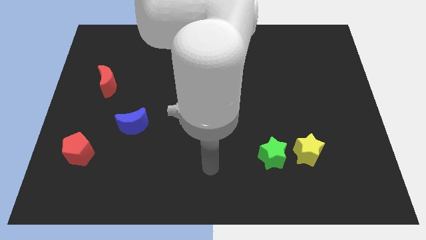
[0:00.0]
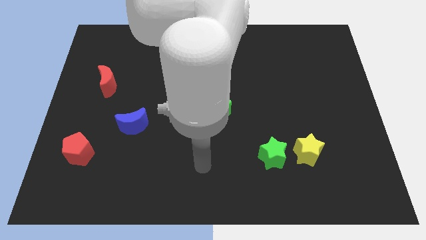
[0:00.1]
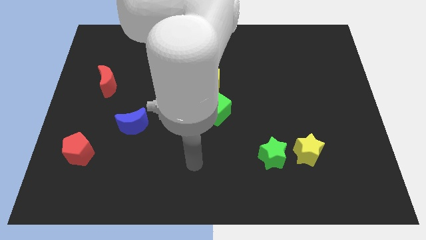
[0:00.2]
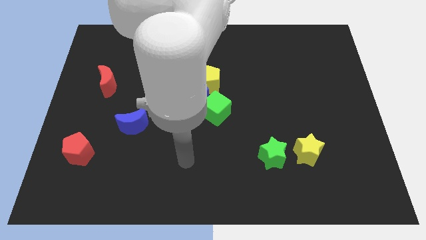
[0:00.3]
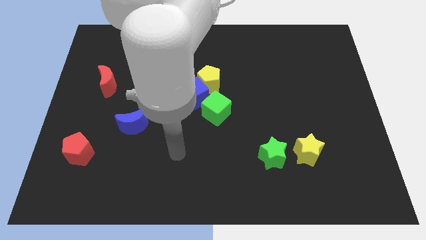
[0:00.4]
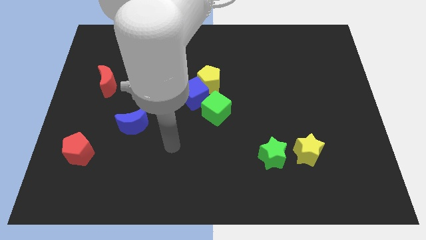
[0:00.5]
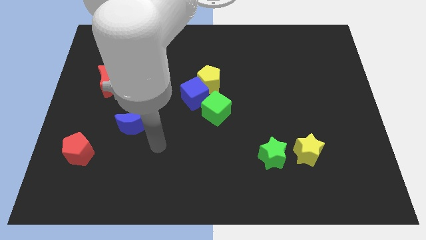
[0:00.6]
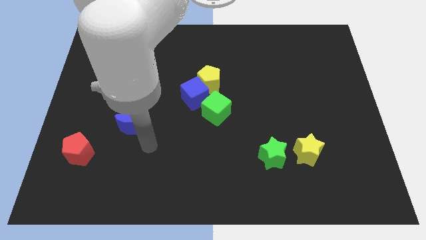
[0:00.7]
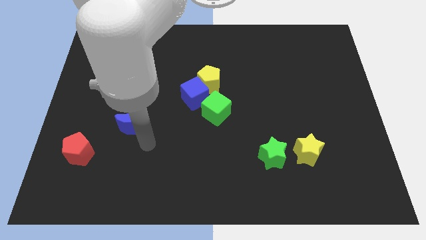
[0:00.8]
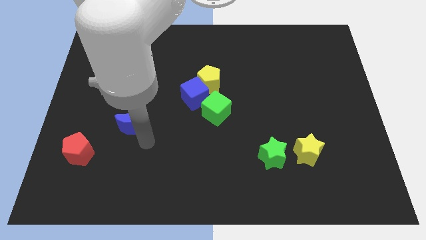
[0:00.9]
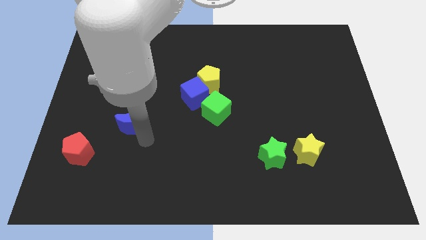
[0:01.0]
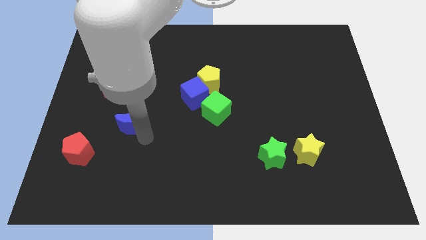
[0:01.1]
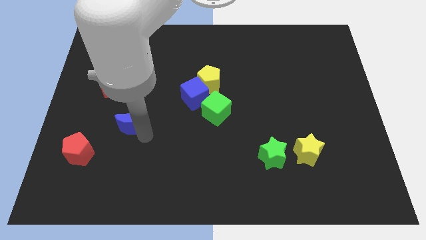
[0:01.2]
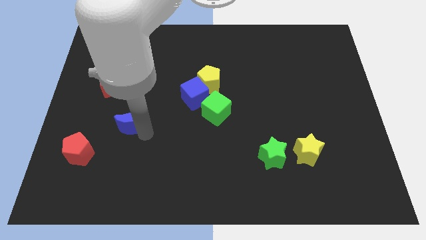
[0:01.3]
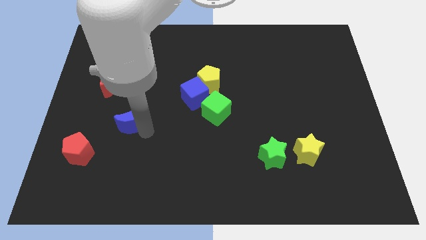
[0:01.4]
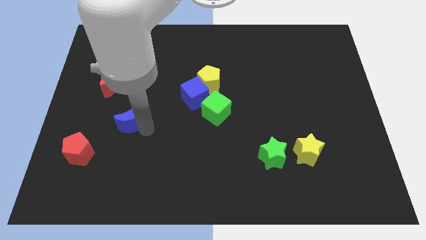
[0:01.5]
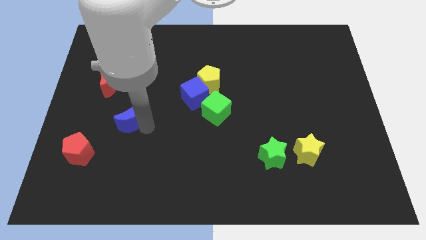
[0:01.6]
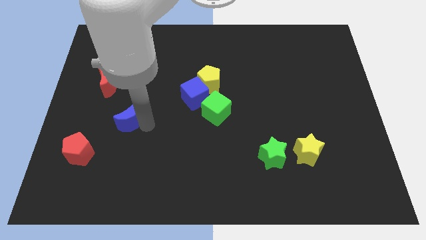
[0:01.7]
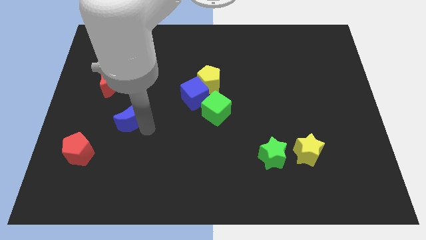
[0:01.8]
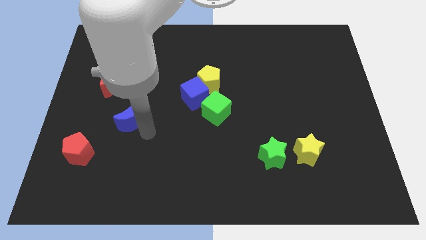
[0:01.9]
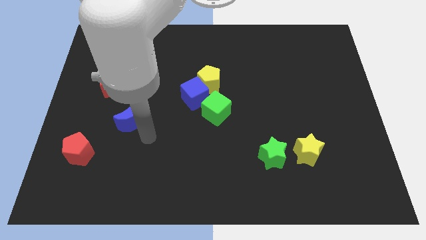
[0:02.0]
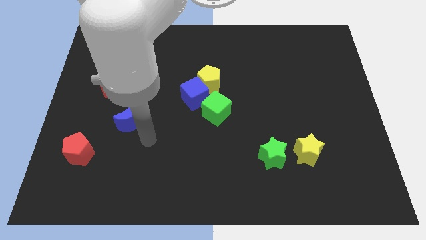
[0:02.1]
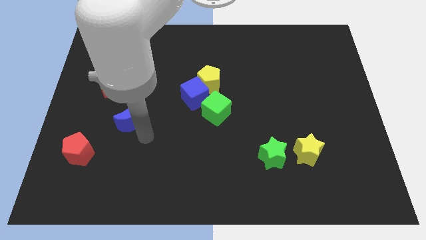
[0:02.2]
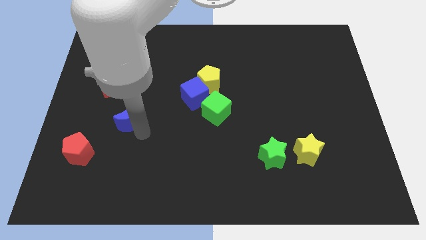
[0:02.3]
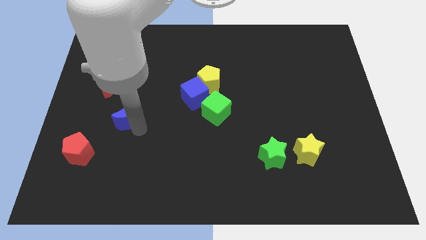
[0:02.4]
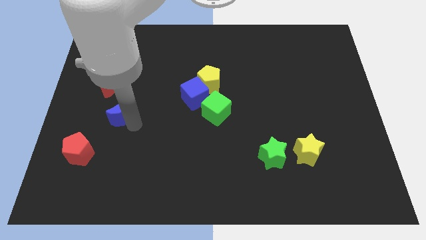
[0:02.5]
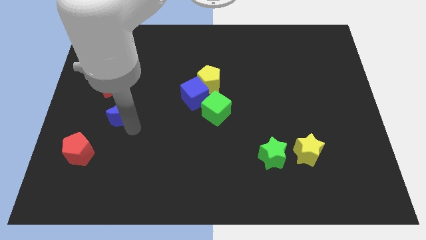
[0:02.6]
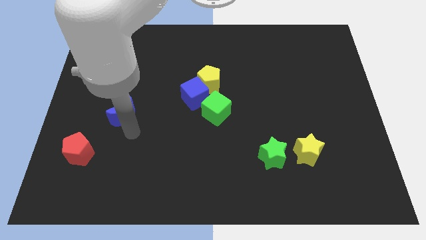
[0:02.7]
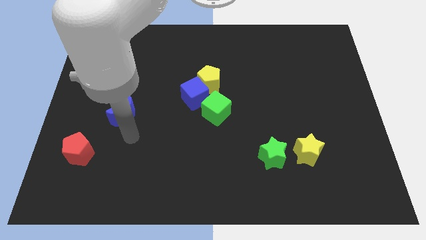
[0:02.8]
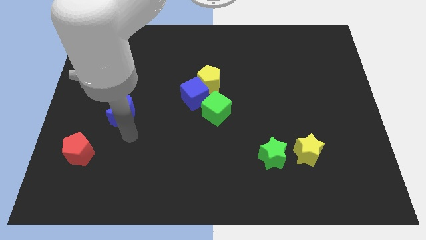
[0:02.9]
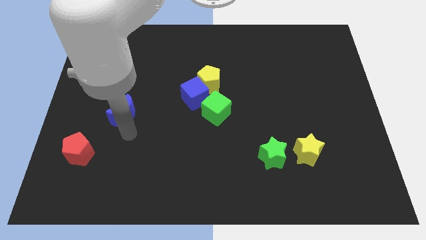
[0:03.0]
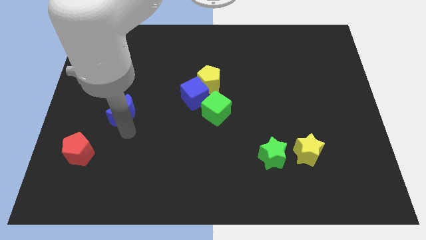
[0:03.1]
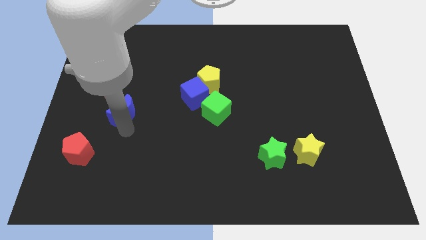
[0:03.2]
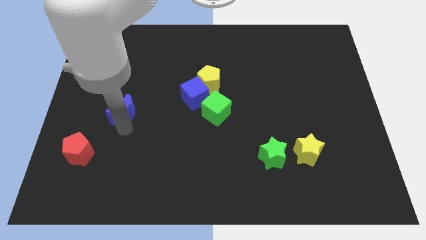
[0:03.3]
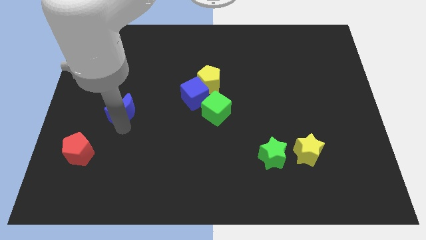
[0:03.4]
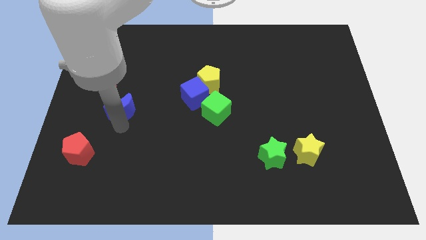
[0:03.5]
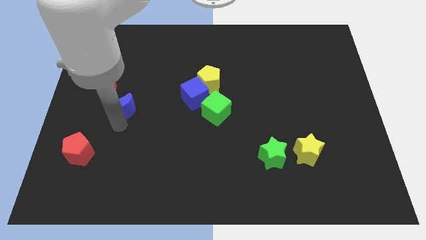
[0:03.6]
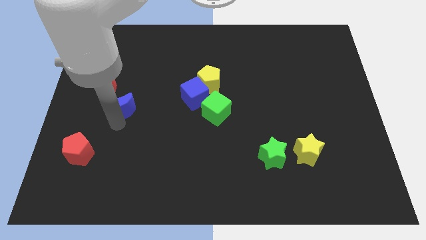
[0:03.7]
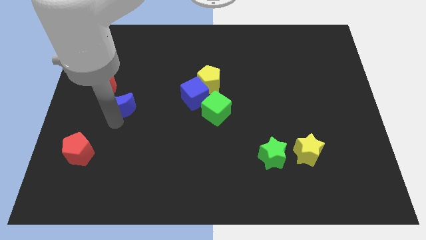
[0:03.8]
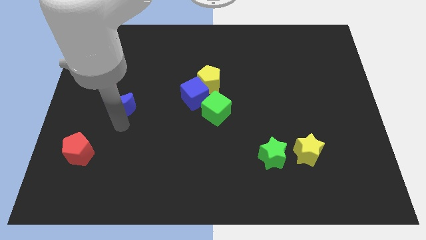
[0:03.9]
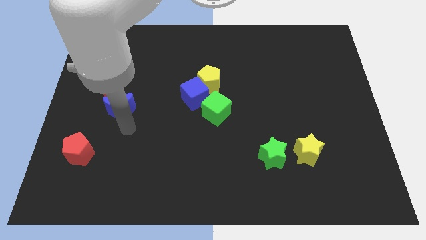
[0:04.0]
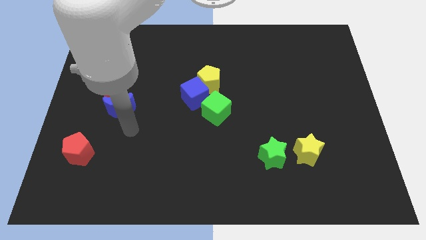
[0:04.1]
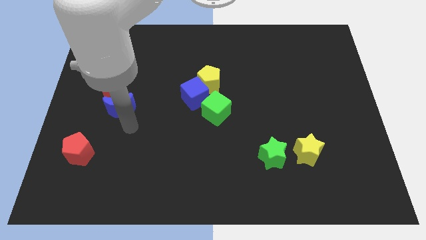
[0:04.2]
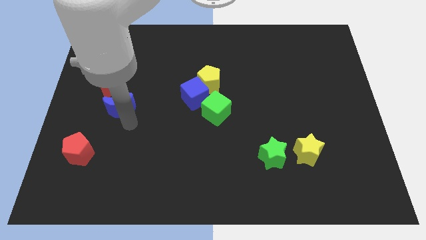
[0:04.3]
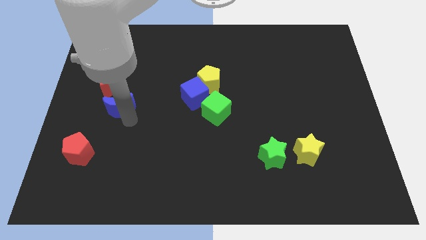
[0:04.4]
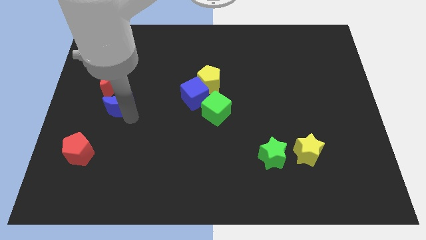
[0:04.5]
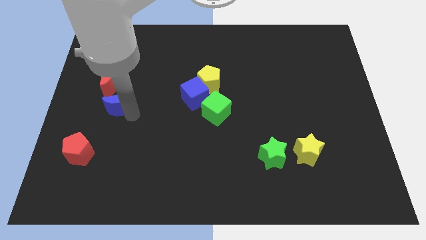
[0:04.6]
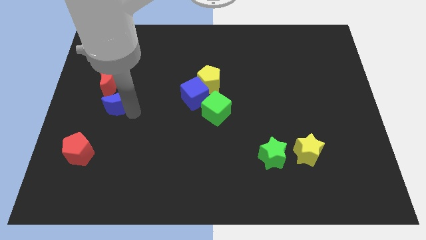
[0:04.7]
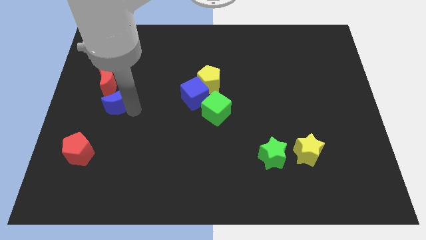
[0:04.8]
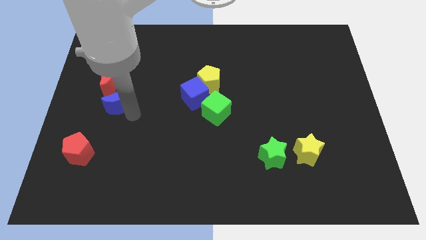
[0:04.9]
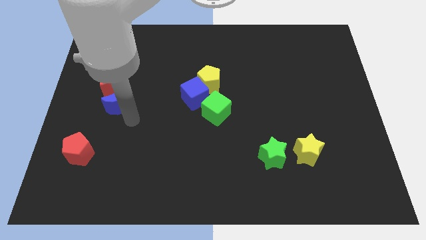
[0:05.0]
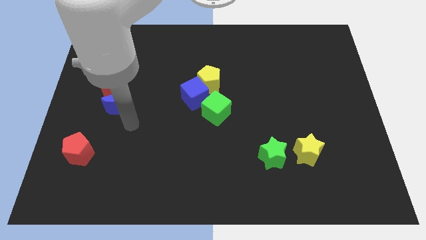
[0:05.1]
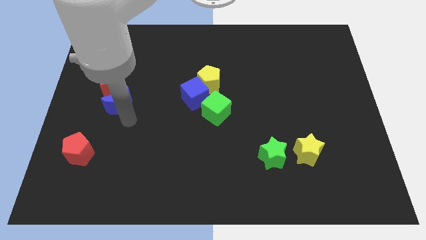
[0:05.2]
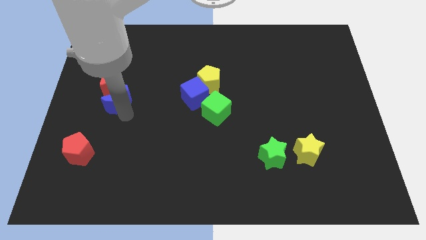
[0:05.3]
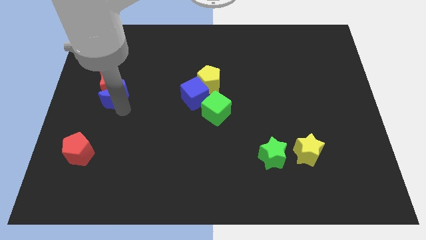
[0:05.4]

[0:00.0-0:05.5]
put the blue moon close to the red moon
